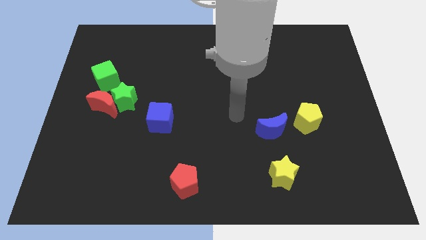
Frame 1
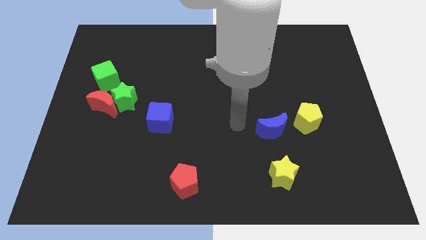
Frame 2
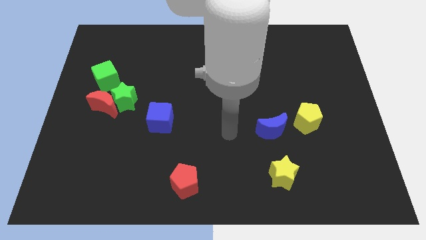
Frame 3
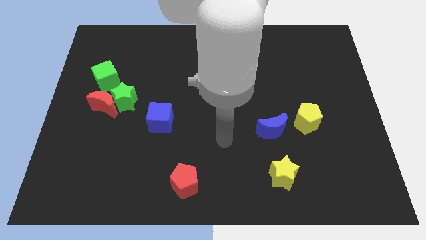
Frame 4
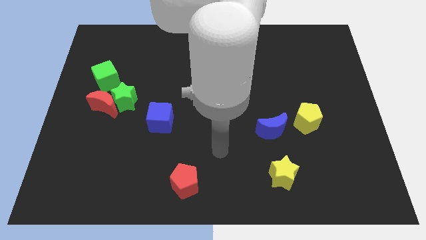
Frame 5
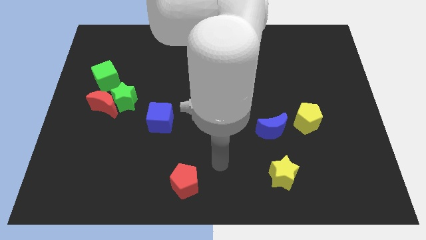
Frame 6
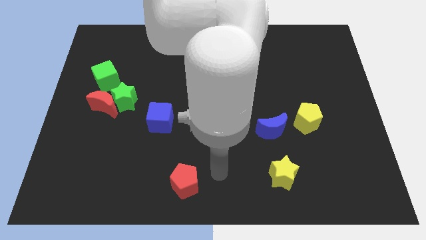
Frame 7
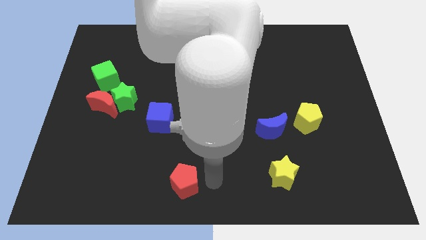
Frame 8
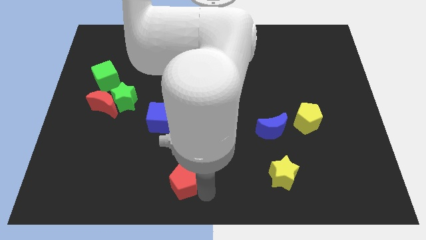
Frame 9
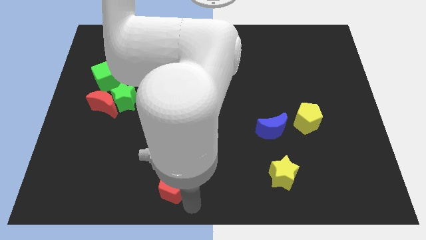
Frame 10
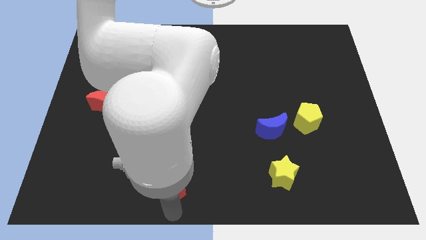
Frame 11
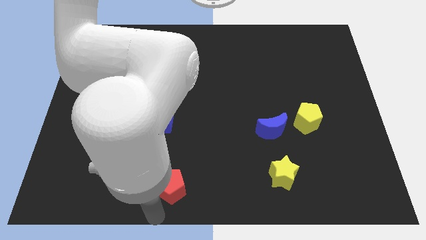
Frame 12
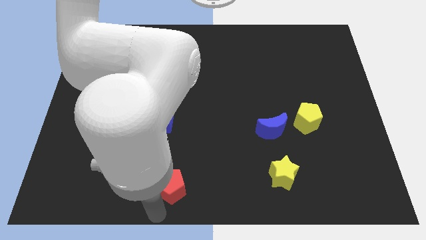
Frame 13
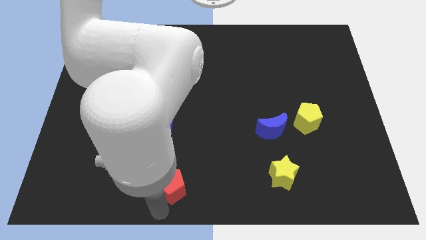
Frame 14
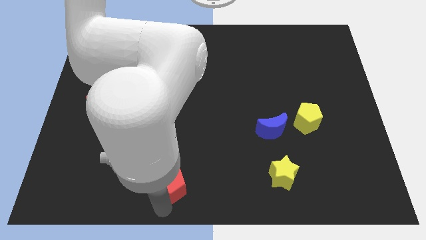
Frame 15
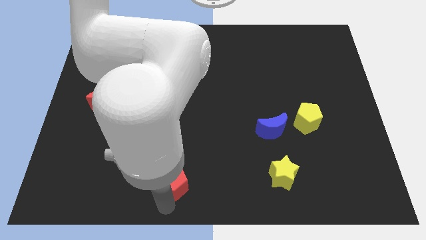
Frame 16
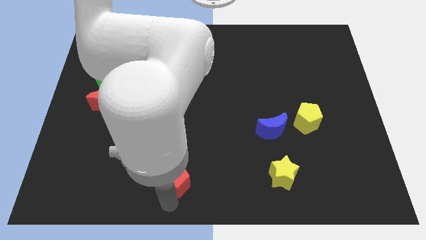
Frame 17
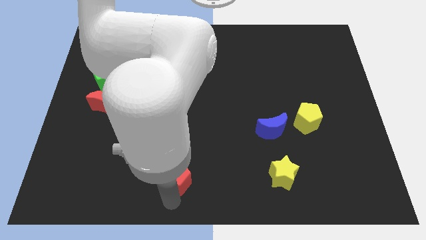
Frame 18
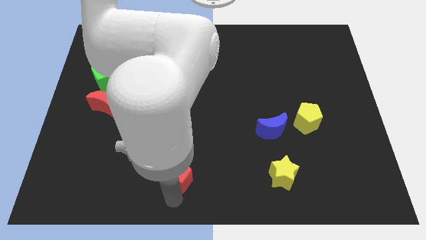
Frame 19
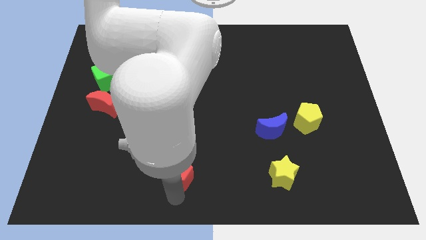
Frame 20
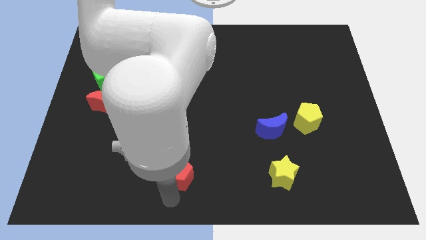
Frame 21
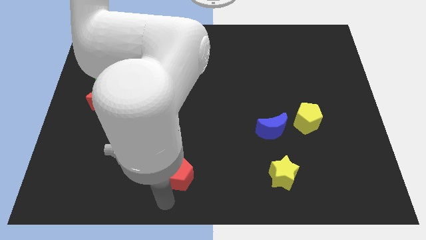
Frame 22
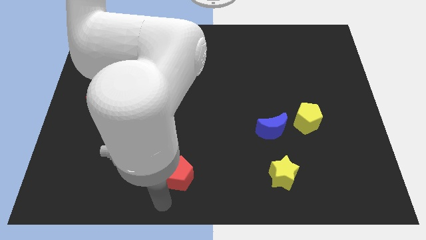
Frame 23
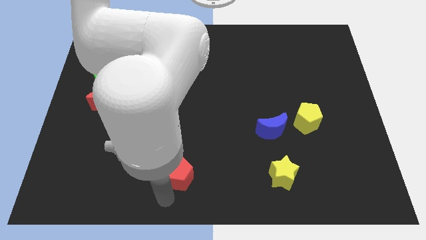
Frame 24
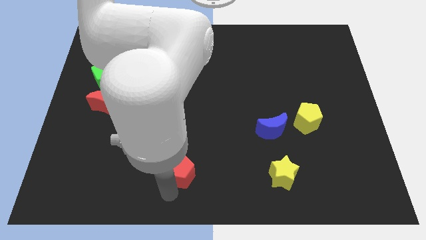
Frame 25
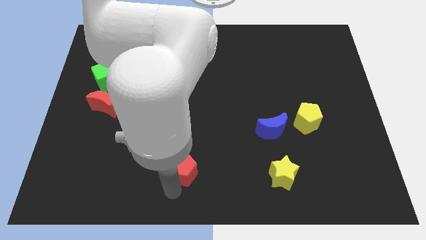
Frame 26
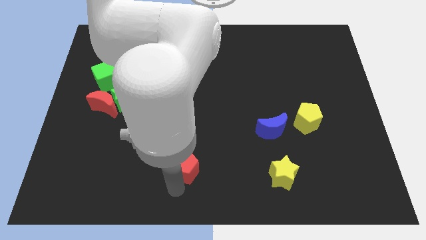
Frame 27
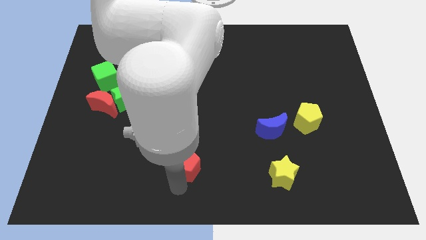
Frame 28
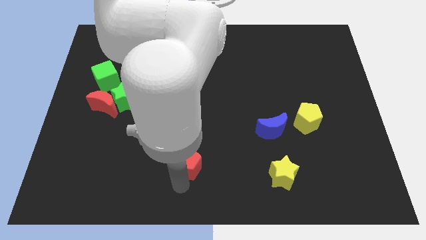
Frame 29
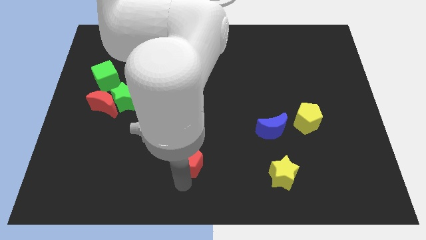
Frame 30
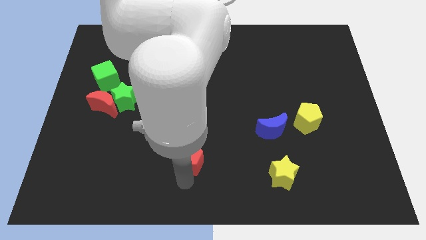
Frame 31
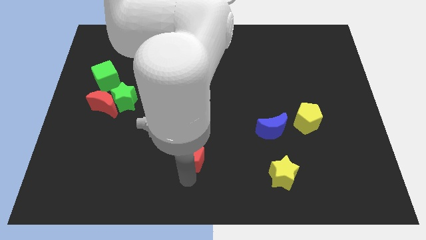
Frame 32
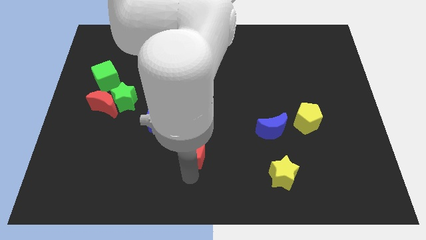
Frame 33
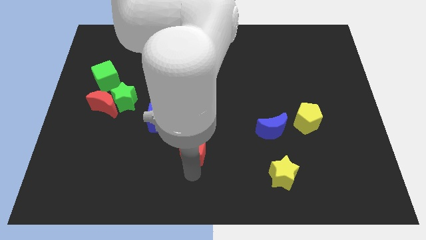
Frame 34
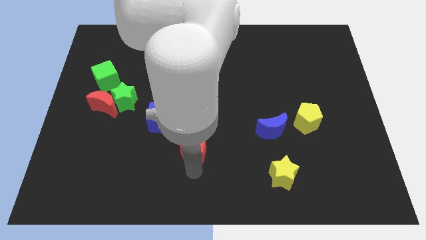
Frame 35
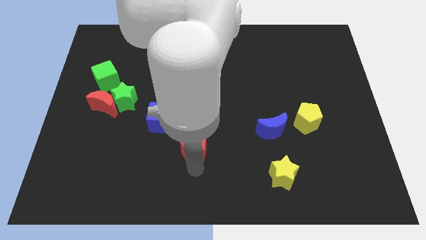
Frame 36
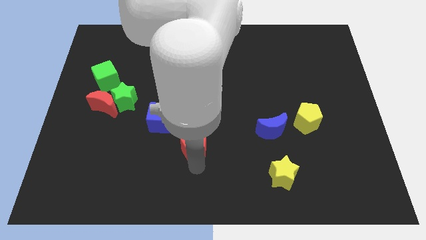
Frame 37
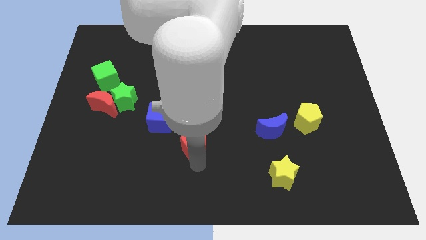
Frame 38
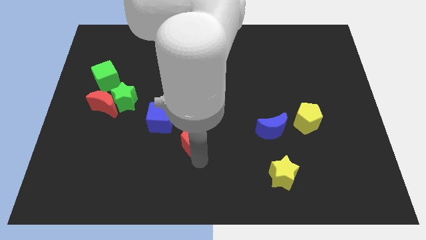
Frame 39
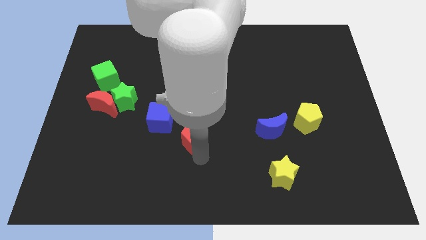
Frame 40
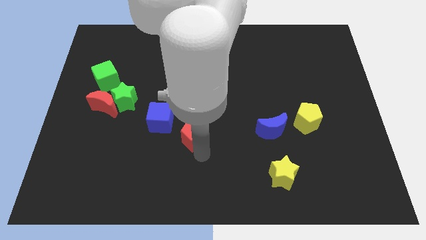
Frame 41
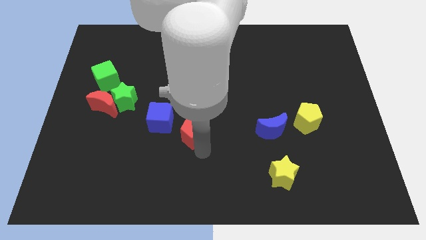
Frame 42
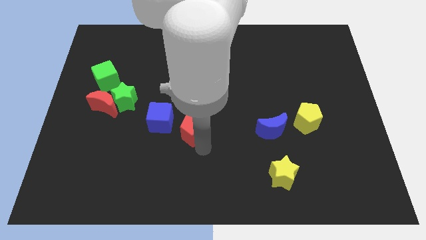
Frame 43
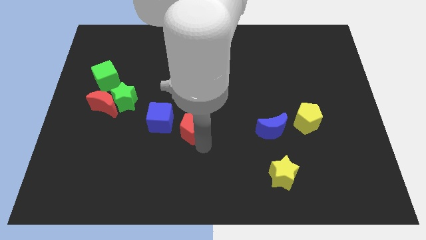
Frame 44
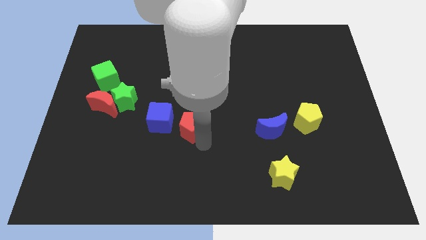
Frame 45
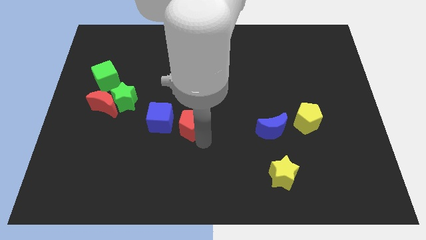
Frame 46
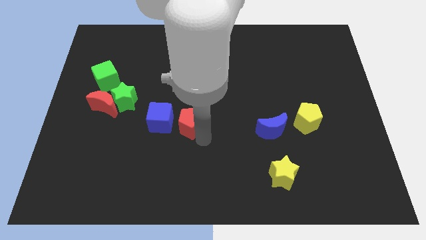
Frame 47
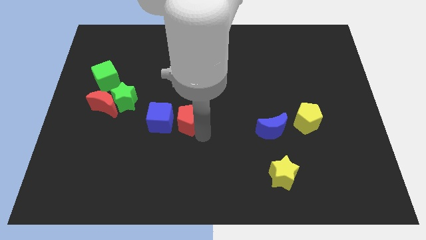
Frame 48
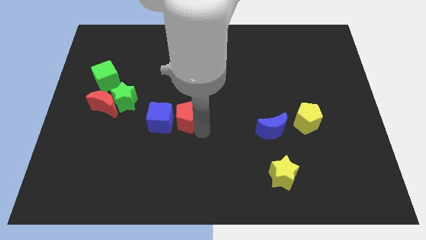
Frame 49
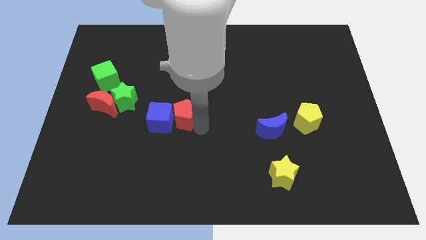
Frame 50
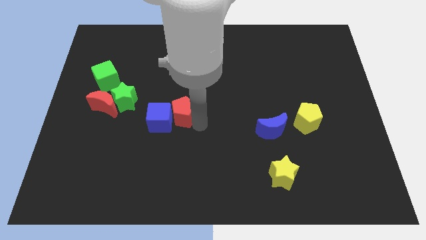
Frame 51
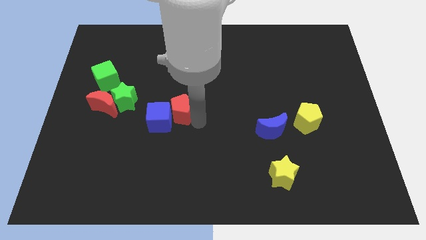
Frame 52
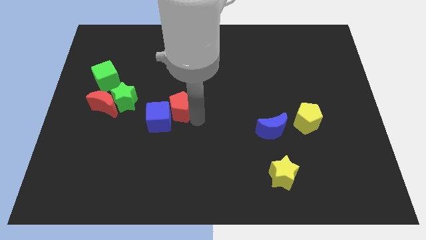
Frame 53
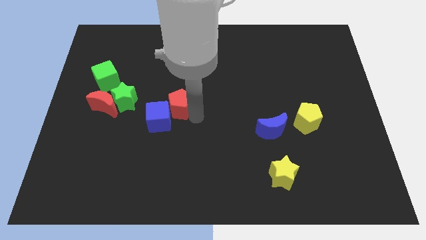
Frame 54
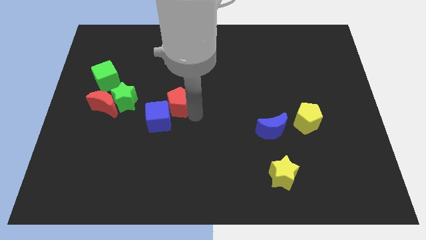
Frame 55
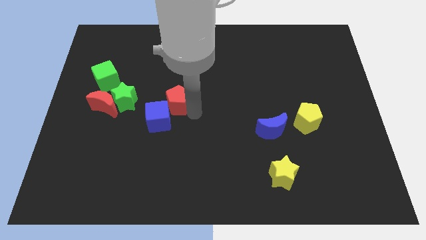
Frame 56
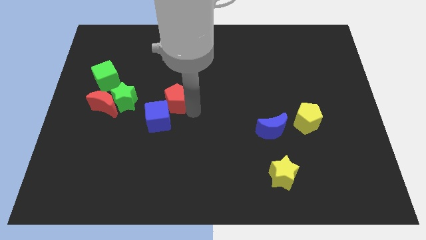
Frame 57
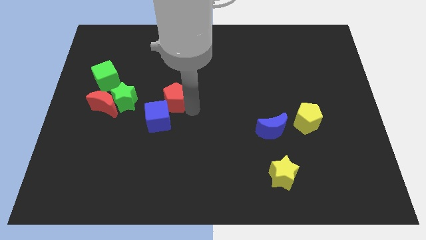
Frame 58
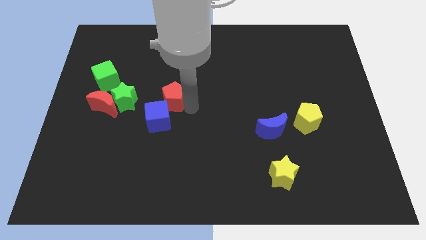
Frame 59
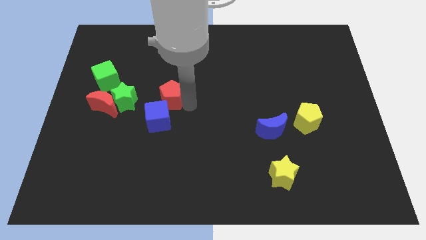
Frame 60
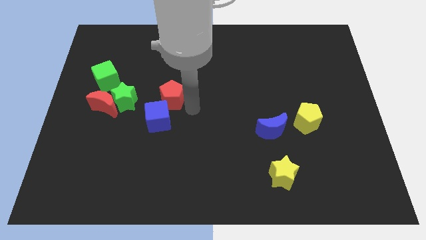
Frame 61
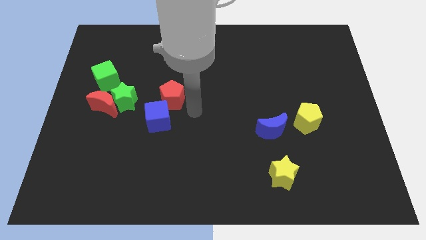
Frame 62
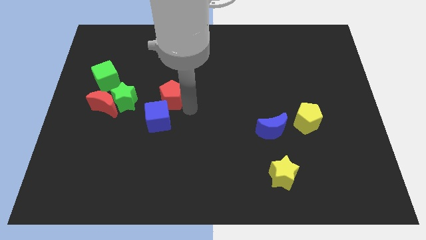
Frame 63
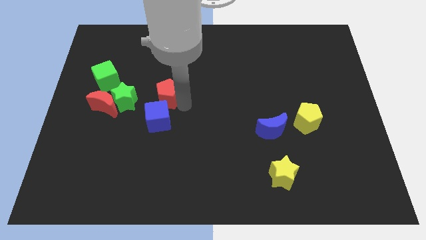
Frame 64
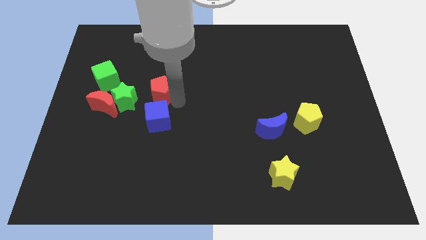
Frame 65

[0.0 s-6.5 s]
slide the red pentagon to the top right side of the green star
